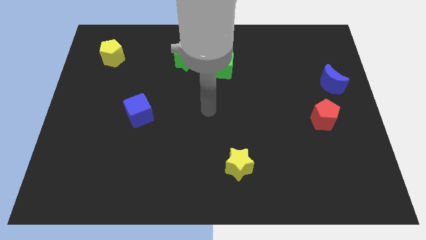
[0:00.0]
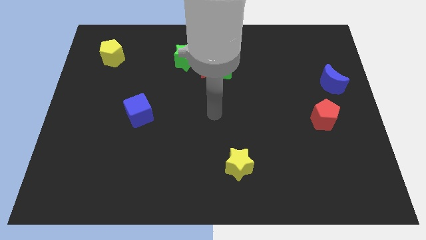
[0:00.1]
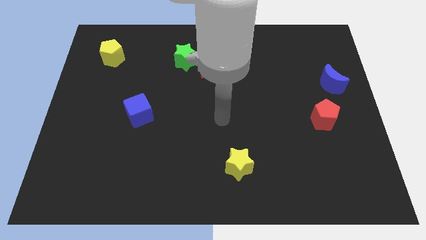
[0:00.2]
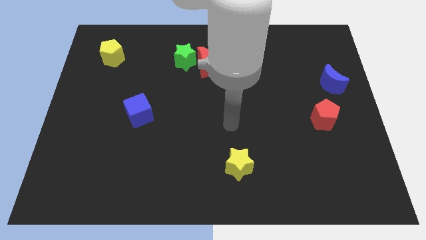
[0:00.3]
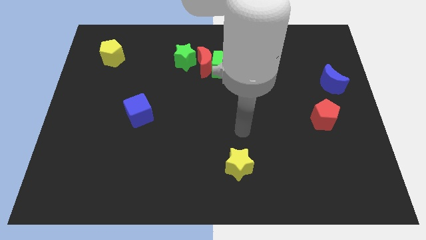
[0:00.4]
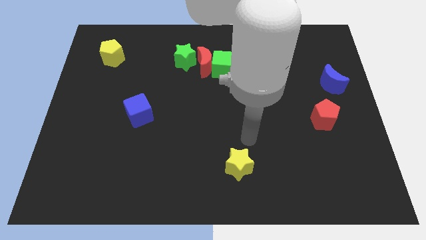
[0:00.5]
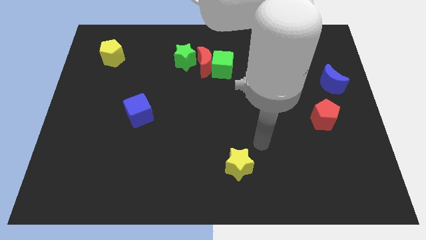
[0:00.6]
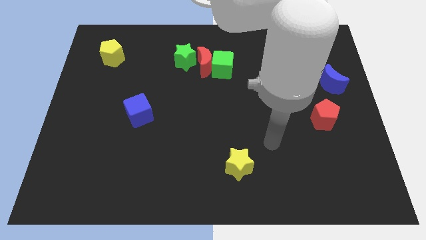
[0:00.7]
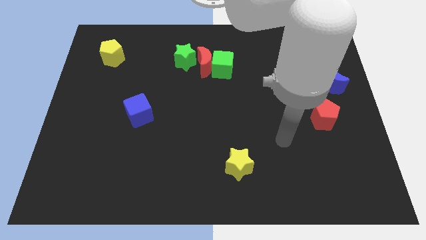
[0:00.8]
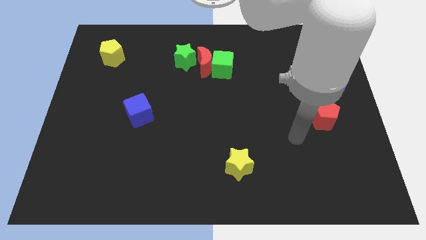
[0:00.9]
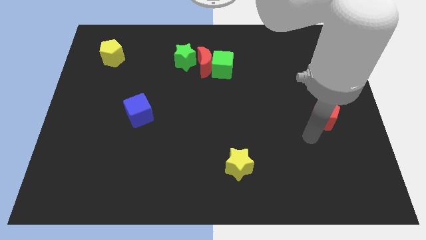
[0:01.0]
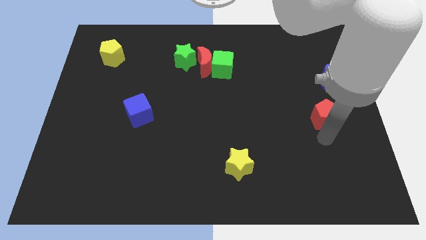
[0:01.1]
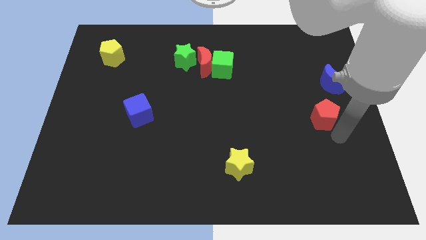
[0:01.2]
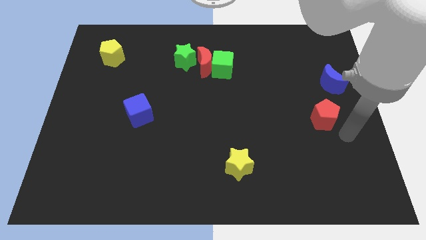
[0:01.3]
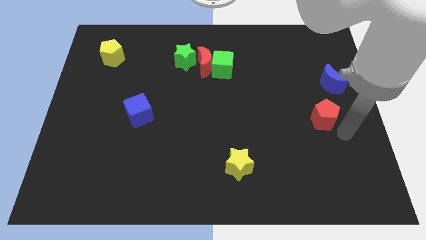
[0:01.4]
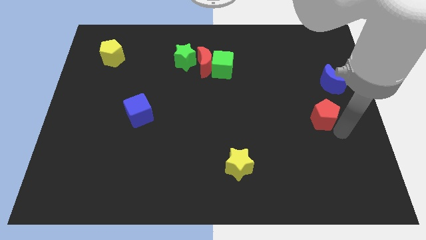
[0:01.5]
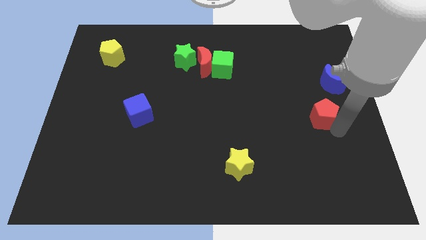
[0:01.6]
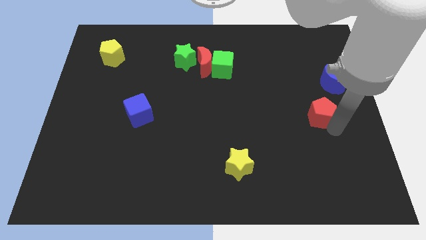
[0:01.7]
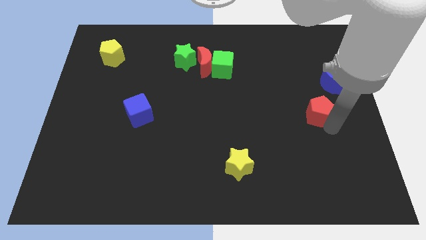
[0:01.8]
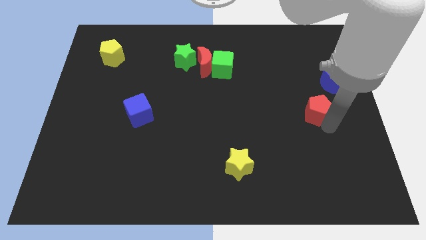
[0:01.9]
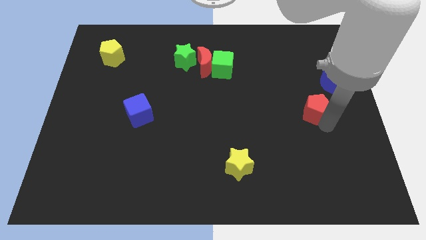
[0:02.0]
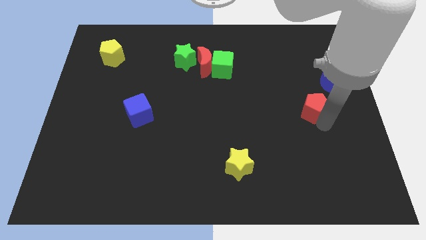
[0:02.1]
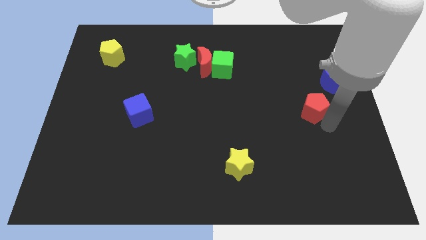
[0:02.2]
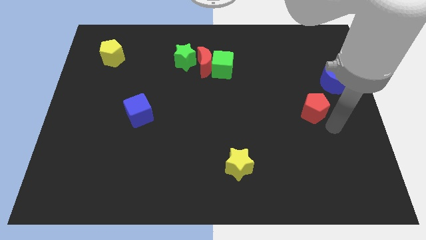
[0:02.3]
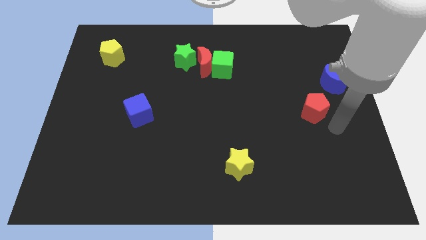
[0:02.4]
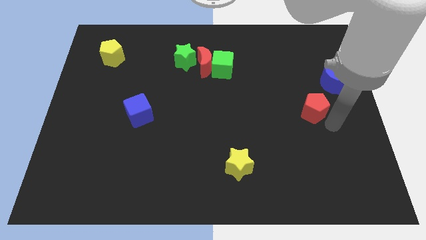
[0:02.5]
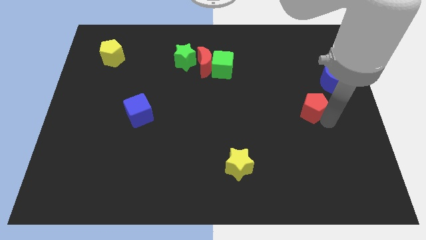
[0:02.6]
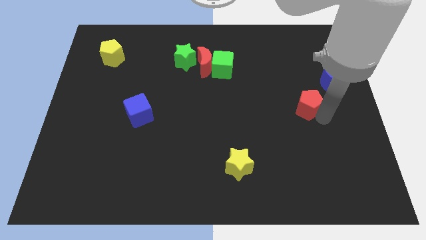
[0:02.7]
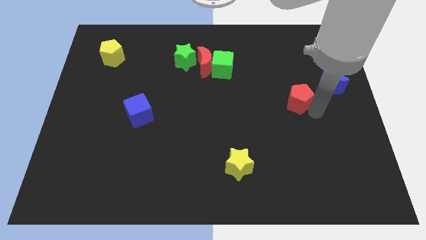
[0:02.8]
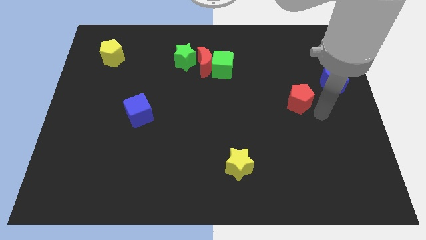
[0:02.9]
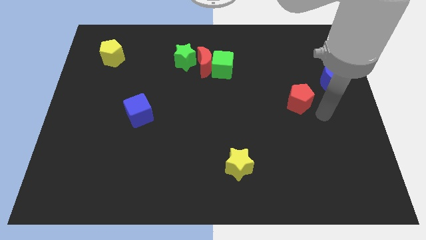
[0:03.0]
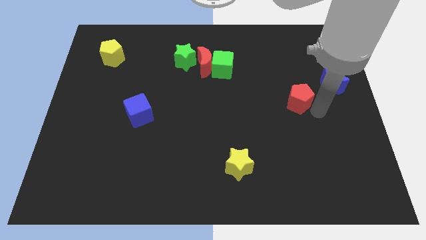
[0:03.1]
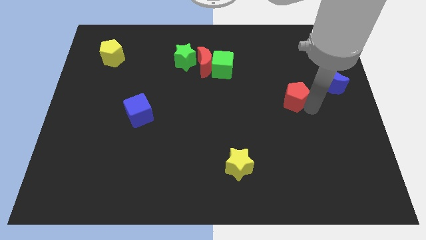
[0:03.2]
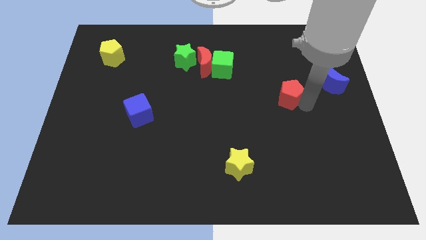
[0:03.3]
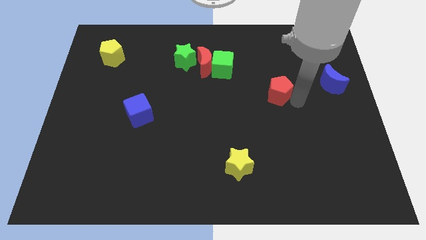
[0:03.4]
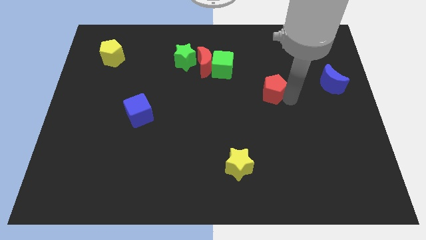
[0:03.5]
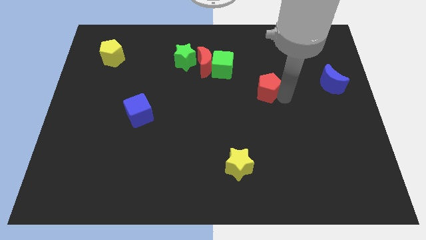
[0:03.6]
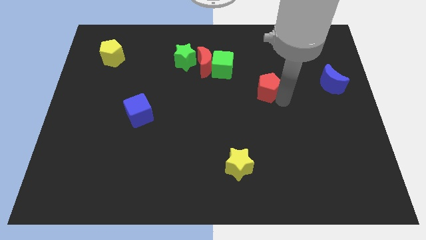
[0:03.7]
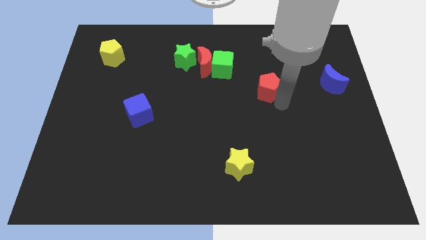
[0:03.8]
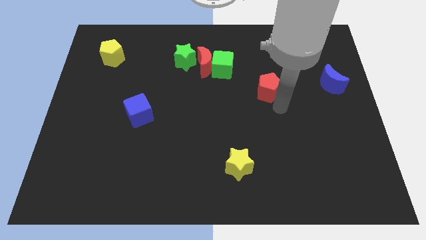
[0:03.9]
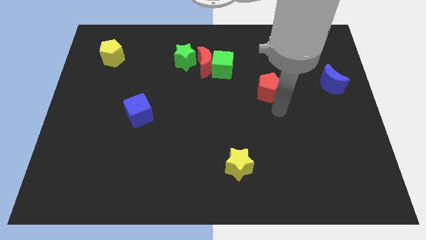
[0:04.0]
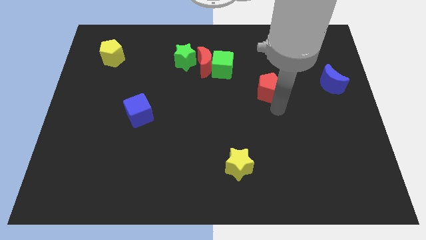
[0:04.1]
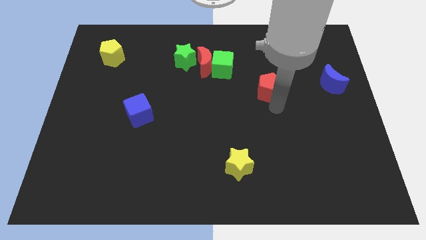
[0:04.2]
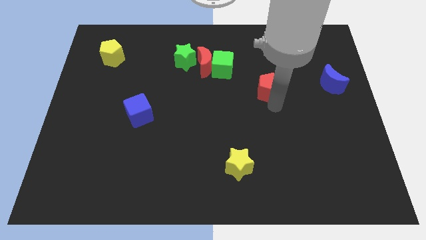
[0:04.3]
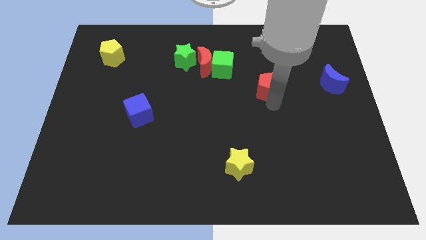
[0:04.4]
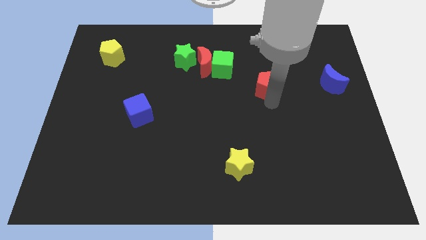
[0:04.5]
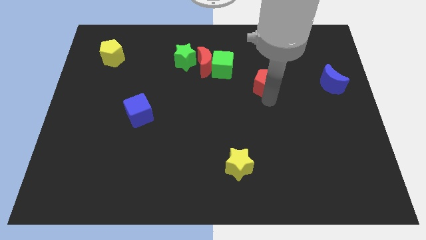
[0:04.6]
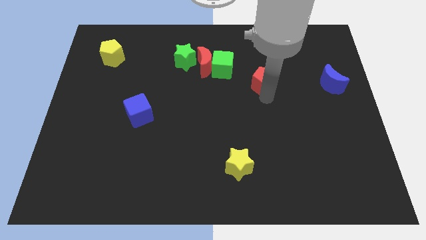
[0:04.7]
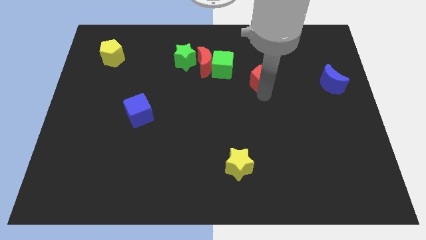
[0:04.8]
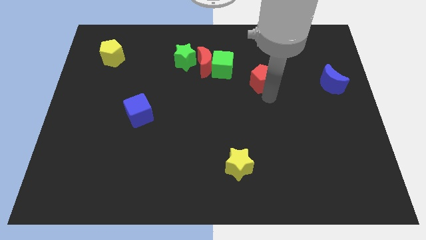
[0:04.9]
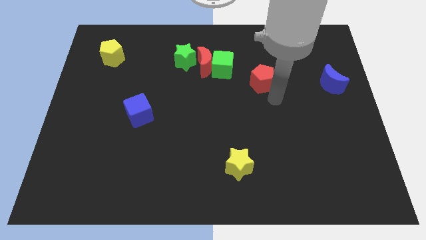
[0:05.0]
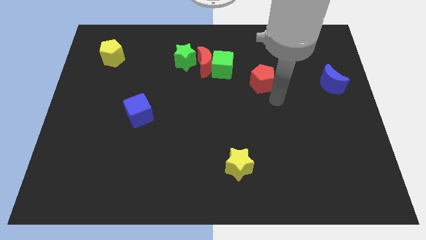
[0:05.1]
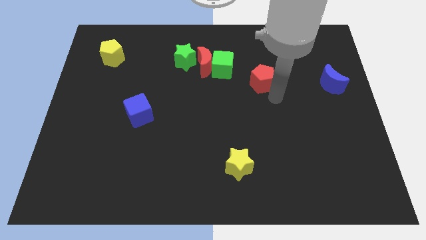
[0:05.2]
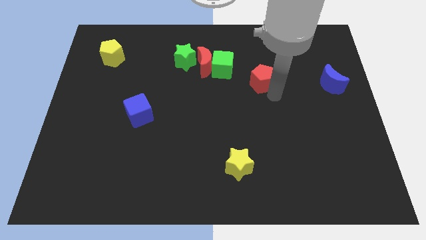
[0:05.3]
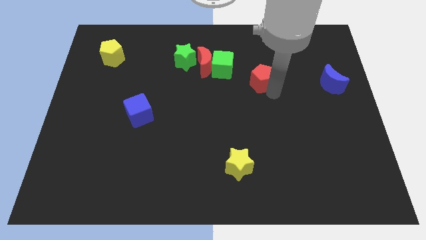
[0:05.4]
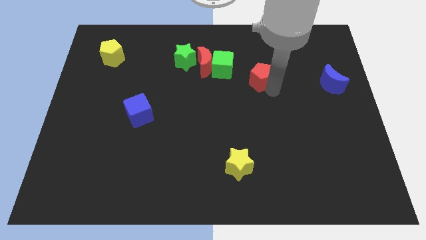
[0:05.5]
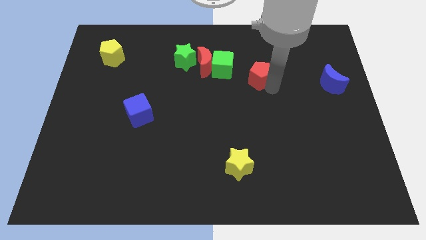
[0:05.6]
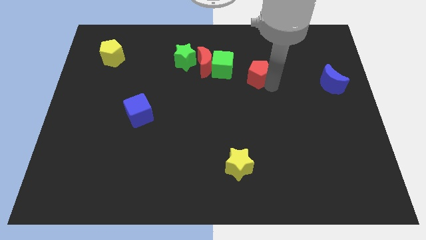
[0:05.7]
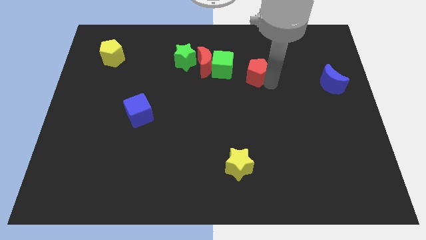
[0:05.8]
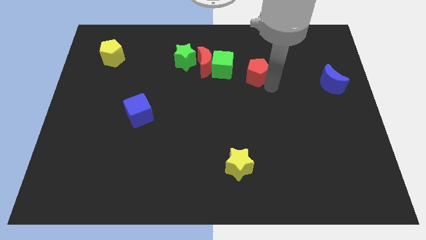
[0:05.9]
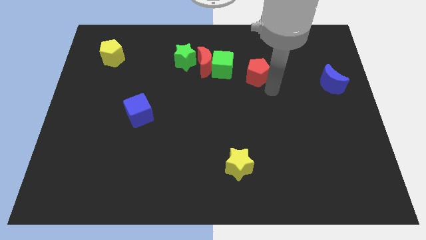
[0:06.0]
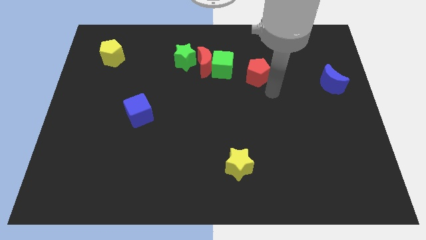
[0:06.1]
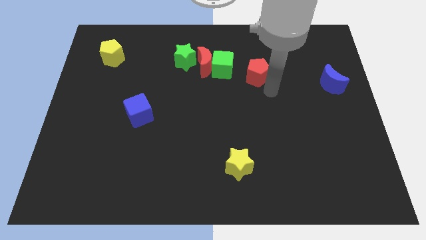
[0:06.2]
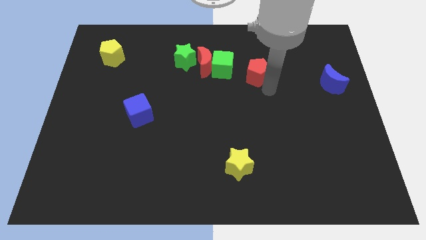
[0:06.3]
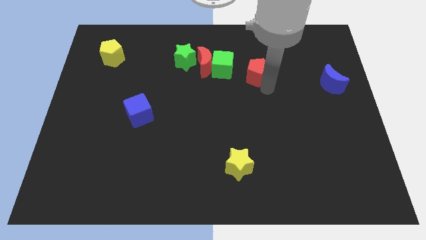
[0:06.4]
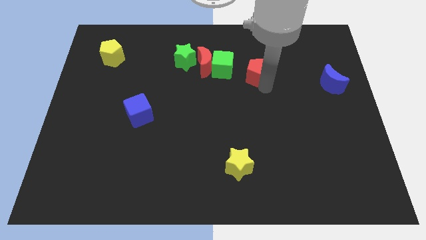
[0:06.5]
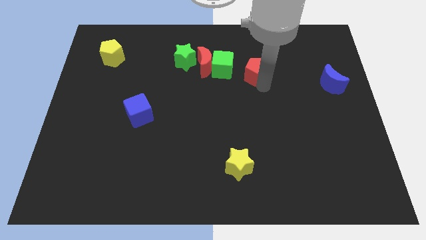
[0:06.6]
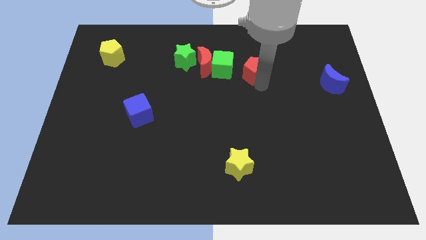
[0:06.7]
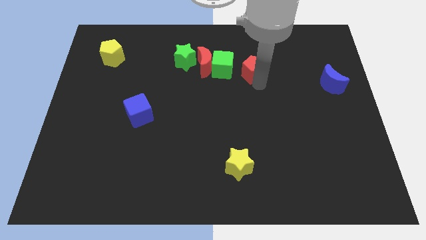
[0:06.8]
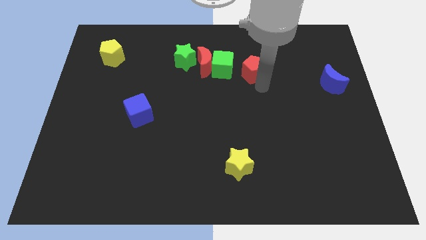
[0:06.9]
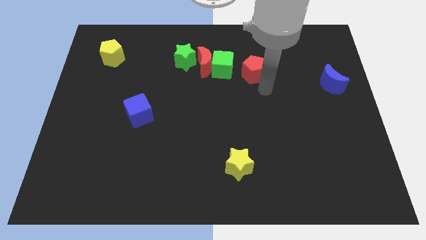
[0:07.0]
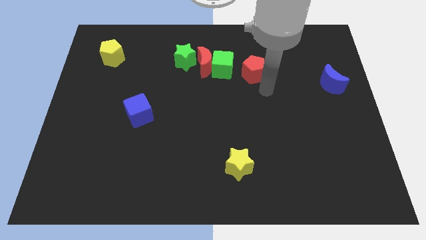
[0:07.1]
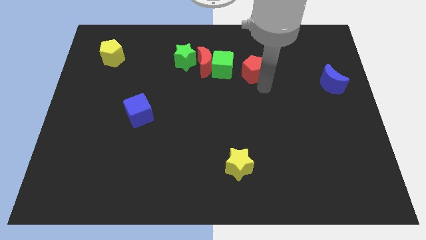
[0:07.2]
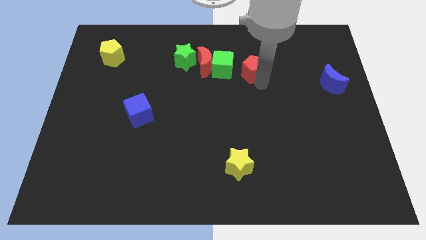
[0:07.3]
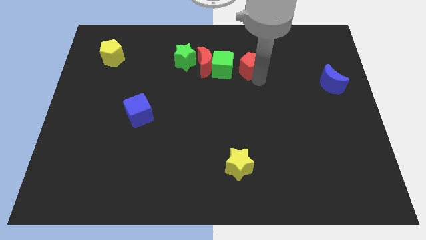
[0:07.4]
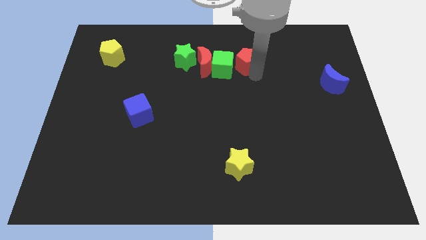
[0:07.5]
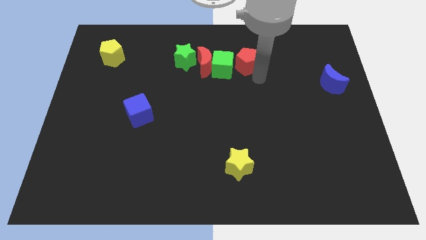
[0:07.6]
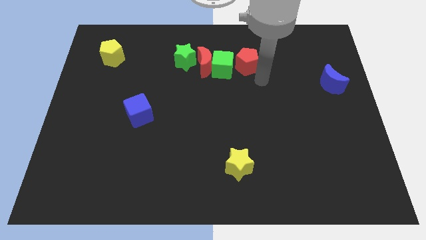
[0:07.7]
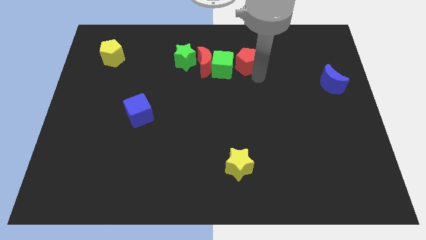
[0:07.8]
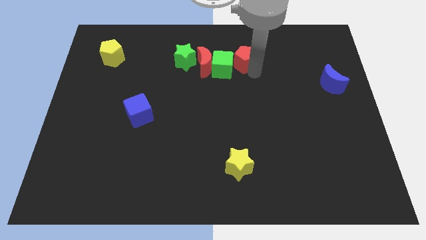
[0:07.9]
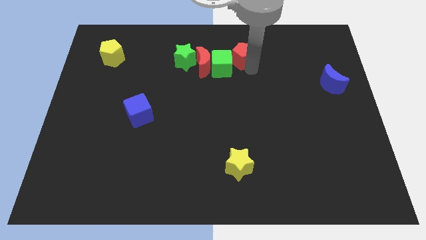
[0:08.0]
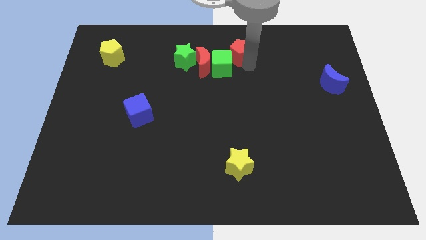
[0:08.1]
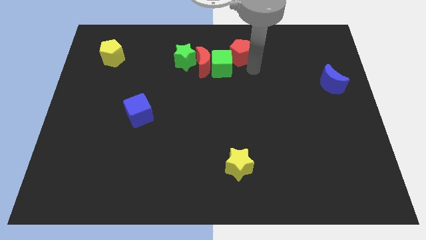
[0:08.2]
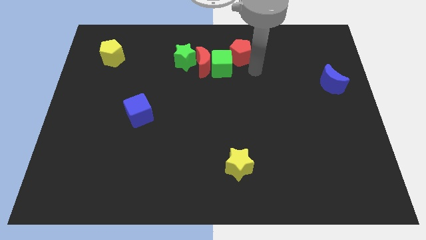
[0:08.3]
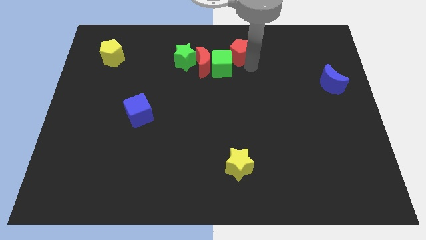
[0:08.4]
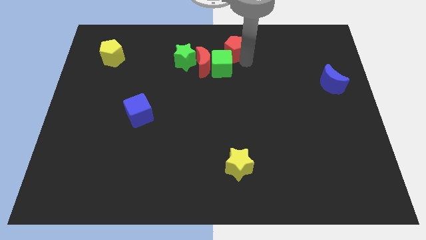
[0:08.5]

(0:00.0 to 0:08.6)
move the red pentagon to the towards your base
